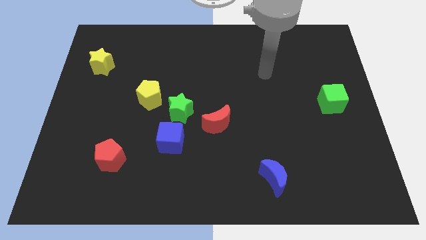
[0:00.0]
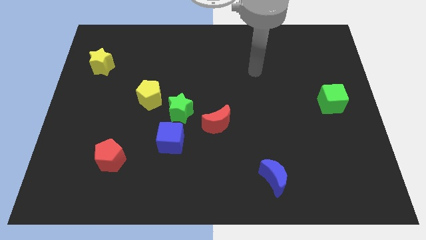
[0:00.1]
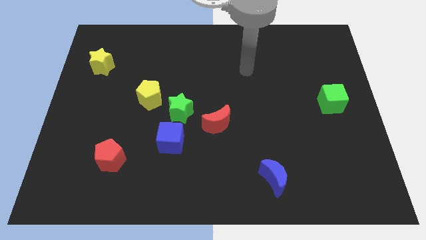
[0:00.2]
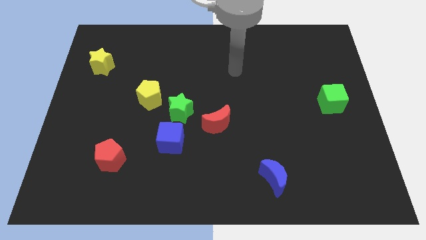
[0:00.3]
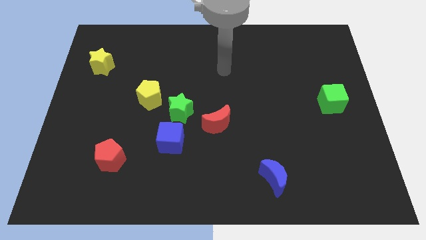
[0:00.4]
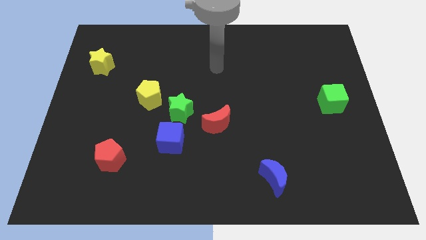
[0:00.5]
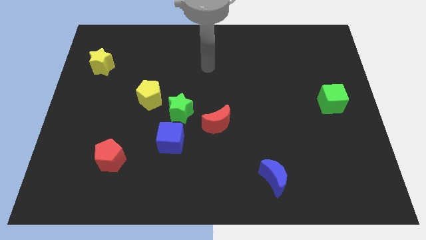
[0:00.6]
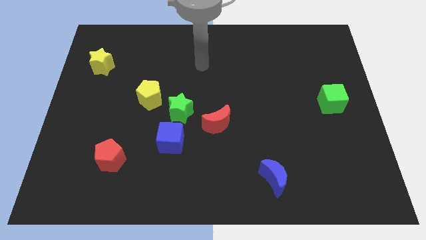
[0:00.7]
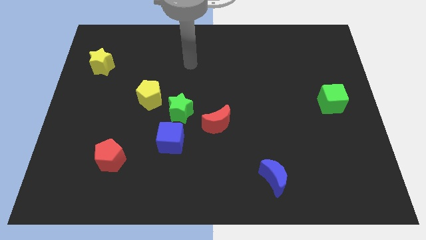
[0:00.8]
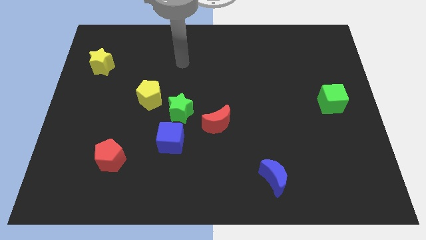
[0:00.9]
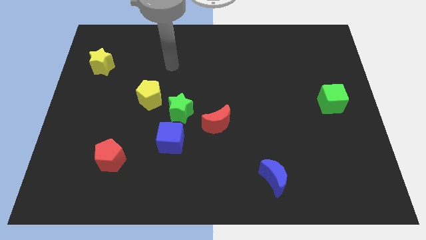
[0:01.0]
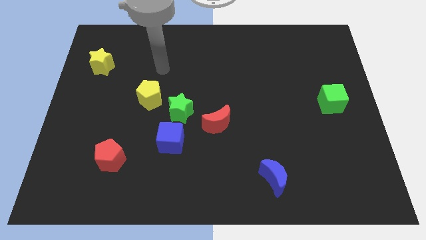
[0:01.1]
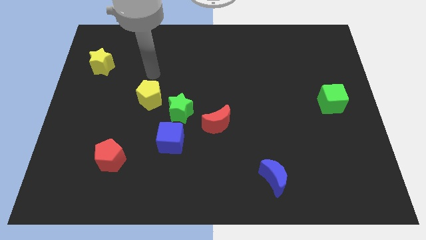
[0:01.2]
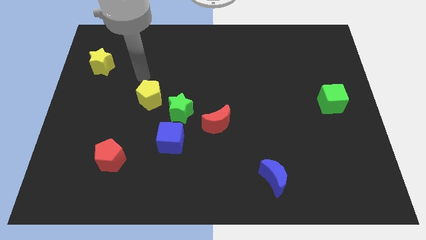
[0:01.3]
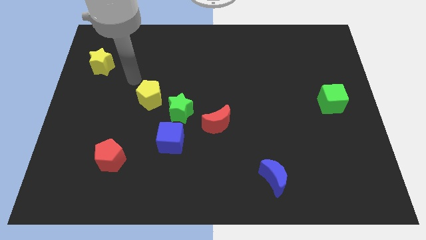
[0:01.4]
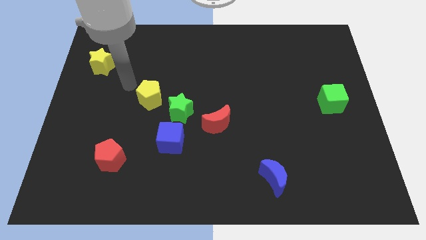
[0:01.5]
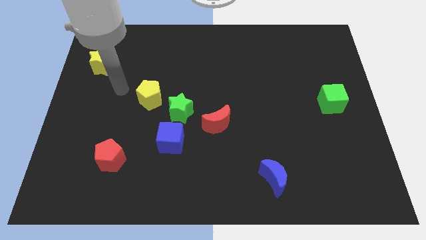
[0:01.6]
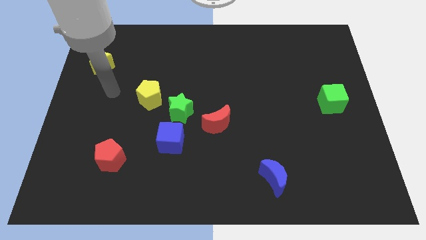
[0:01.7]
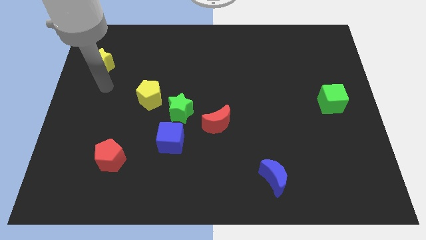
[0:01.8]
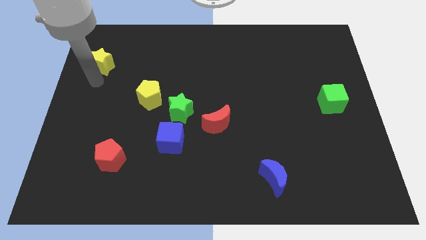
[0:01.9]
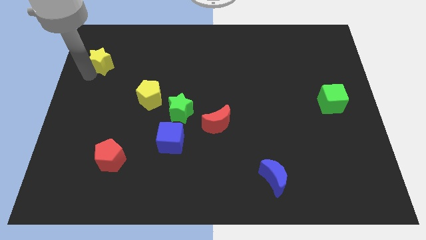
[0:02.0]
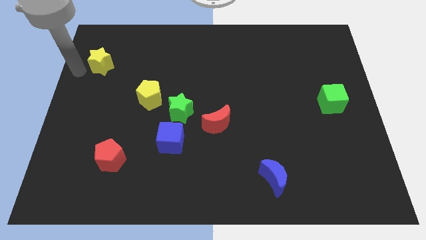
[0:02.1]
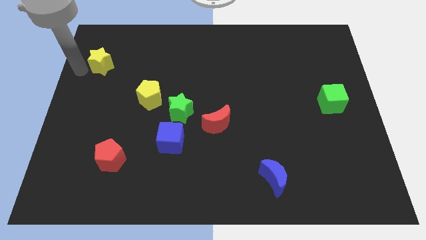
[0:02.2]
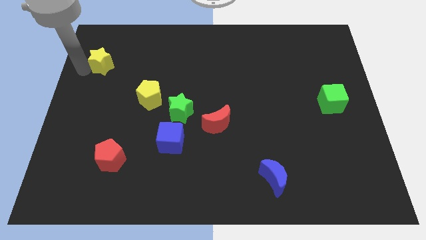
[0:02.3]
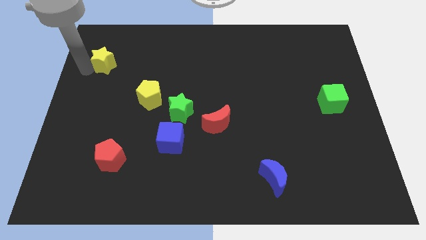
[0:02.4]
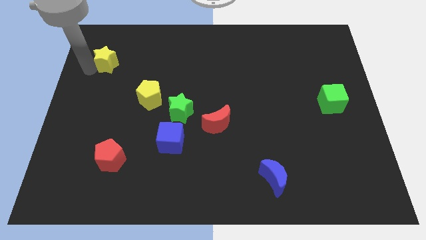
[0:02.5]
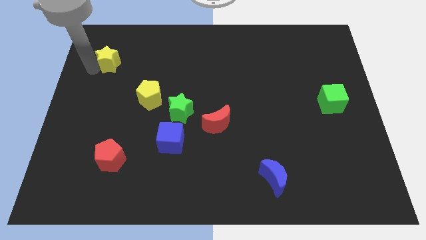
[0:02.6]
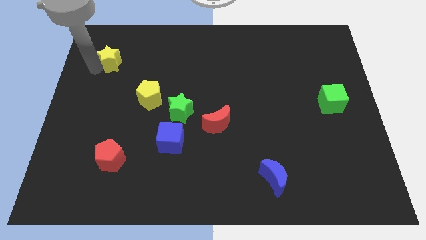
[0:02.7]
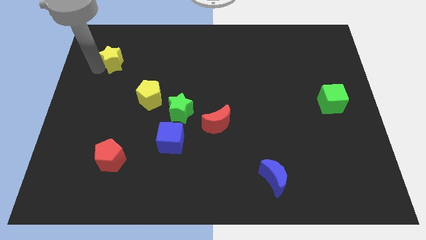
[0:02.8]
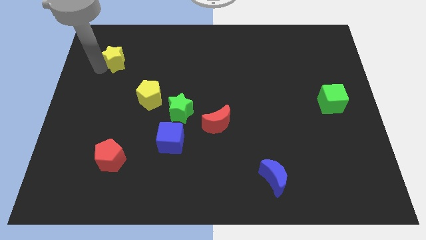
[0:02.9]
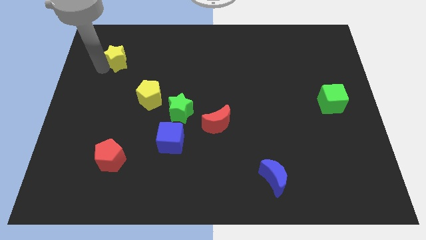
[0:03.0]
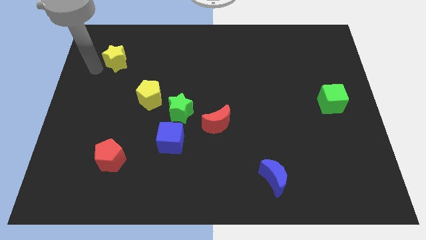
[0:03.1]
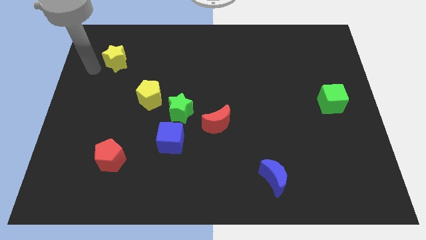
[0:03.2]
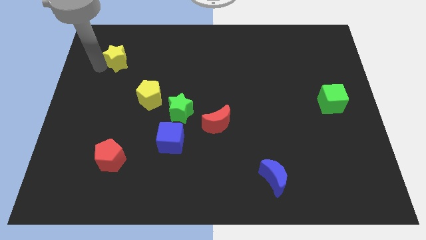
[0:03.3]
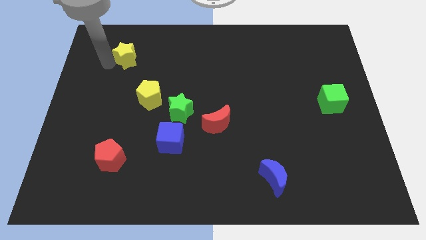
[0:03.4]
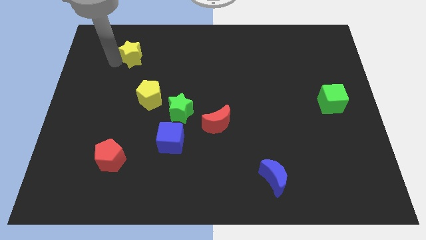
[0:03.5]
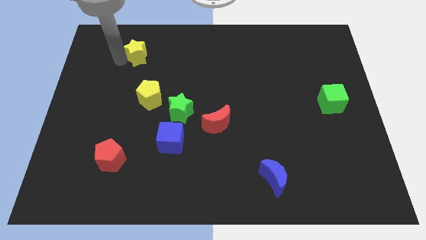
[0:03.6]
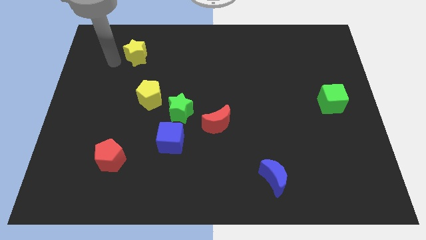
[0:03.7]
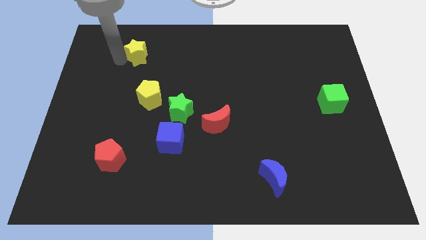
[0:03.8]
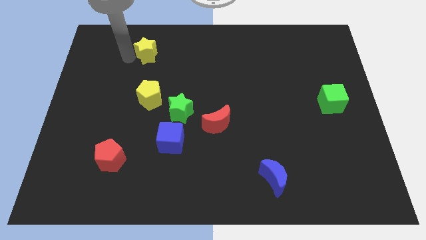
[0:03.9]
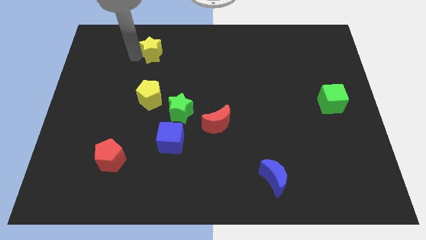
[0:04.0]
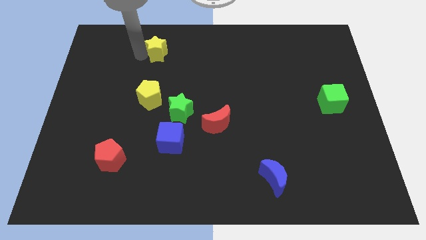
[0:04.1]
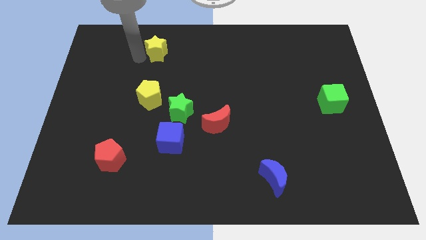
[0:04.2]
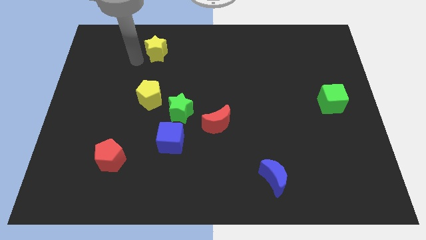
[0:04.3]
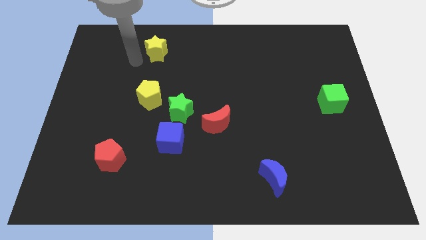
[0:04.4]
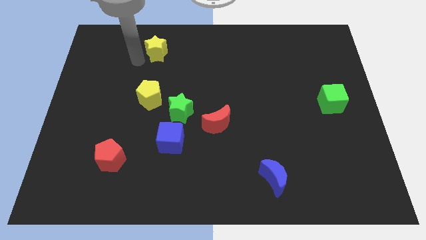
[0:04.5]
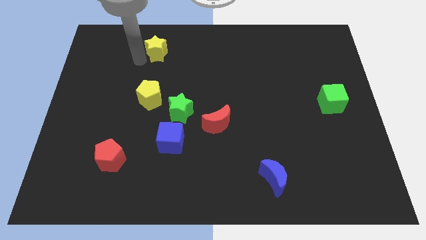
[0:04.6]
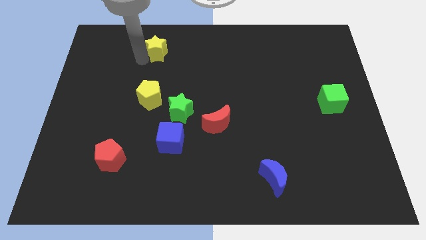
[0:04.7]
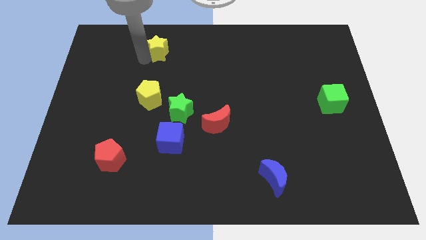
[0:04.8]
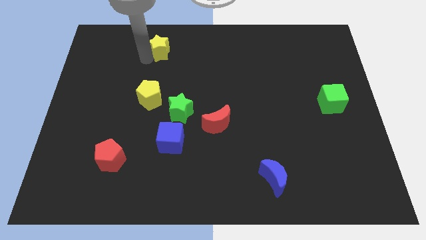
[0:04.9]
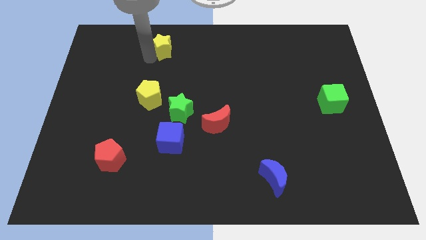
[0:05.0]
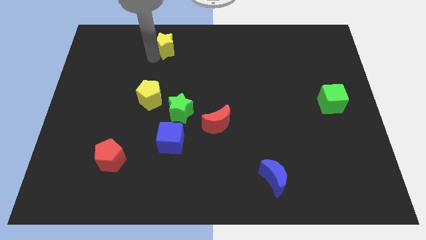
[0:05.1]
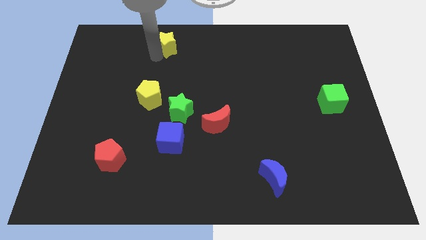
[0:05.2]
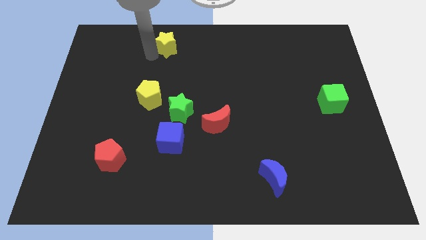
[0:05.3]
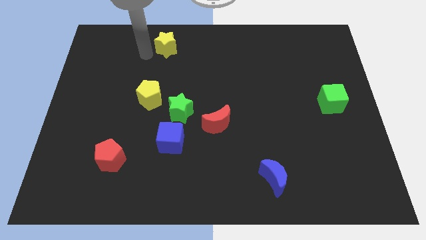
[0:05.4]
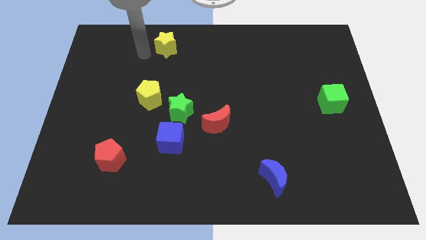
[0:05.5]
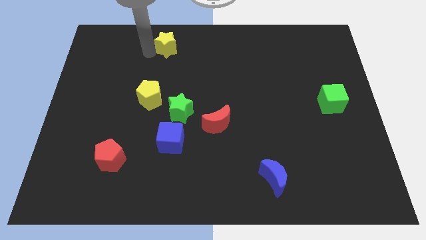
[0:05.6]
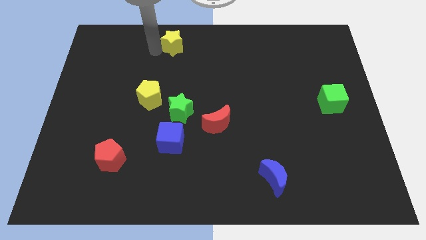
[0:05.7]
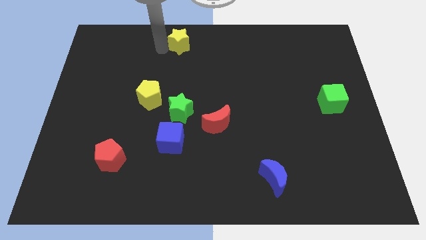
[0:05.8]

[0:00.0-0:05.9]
move the yellow star to the top side

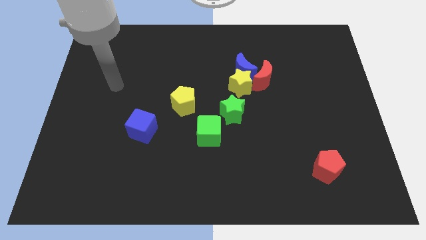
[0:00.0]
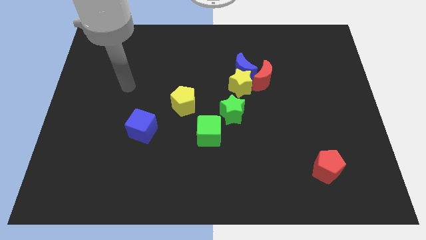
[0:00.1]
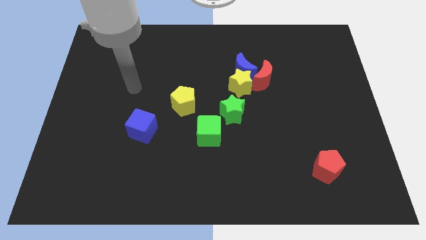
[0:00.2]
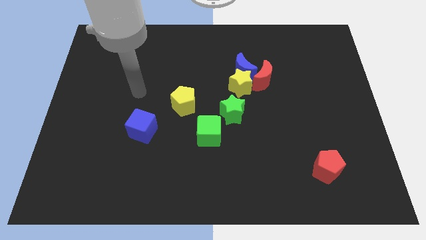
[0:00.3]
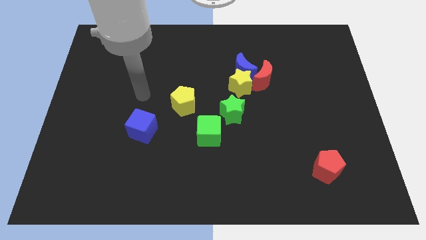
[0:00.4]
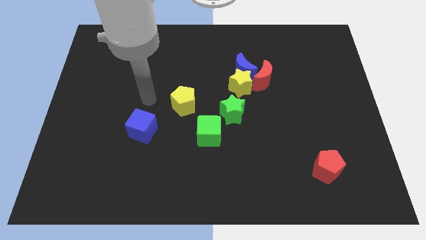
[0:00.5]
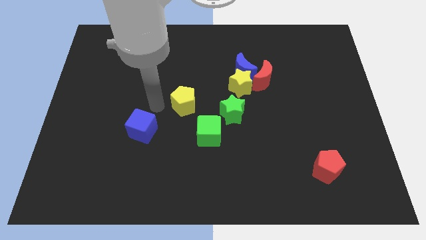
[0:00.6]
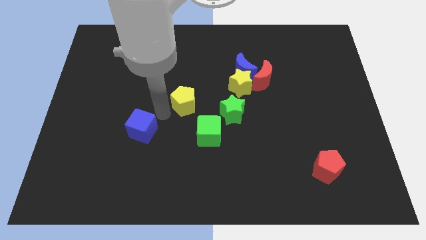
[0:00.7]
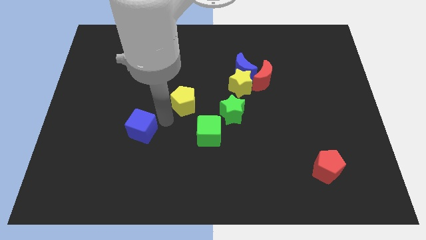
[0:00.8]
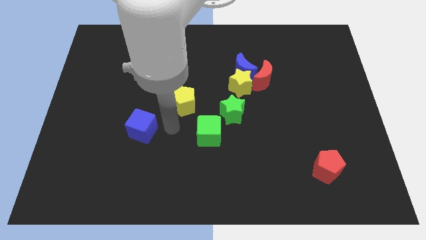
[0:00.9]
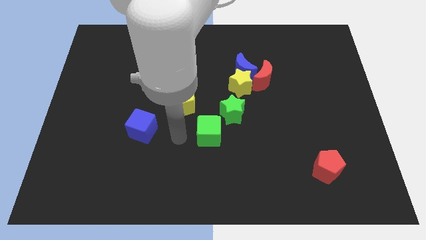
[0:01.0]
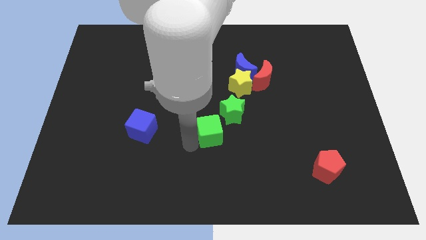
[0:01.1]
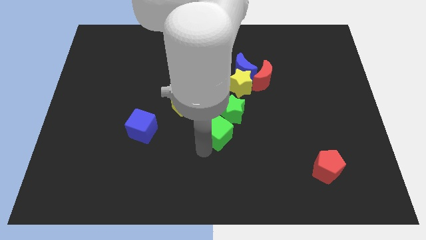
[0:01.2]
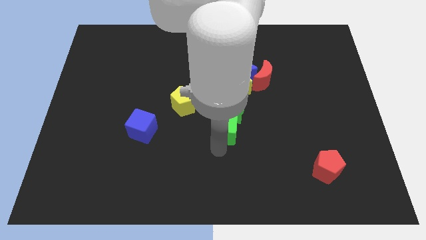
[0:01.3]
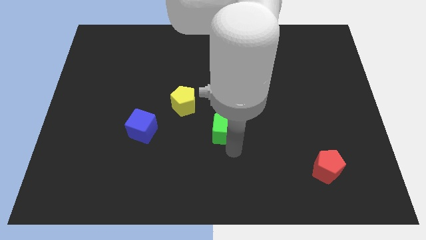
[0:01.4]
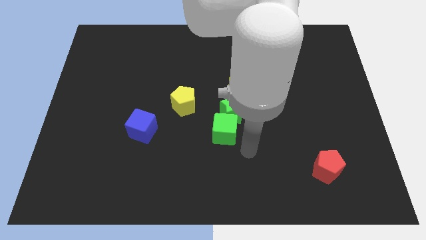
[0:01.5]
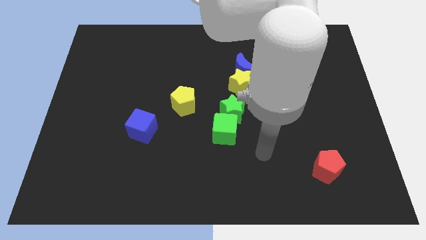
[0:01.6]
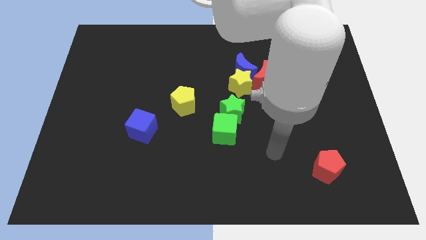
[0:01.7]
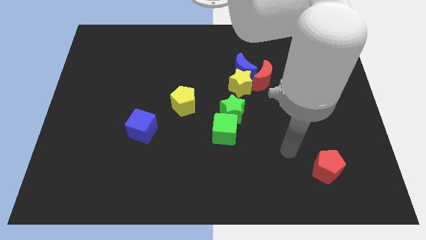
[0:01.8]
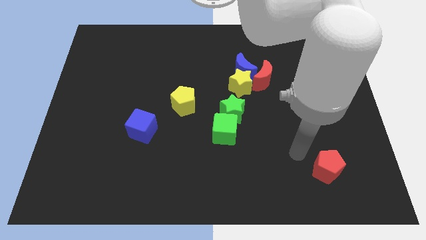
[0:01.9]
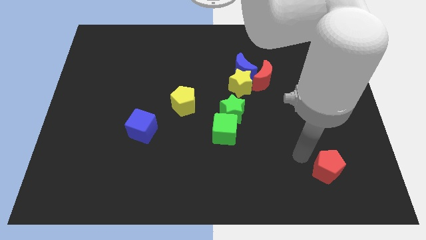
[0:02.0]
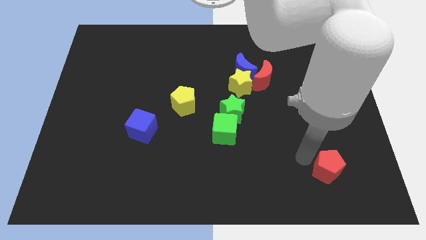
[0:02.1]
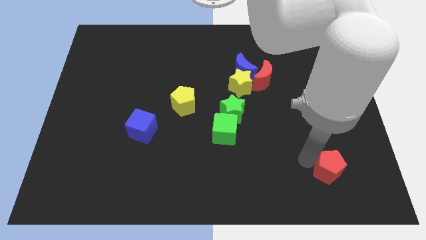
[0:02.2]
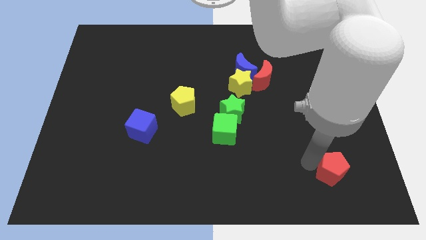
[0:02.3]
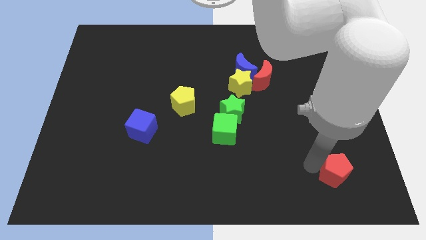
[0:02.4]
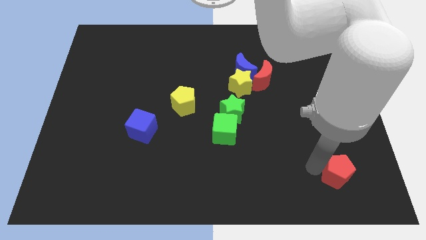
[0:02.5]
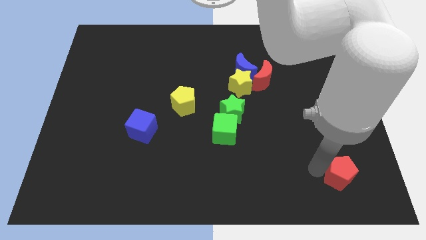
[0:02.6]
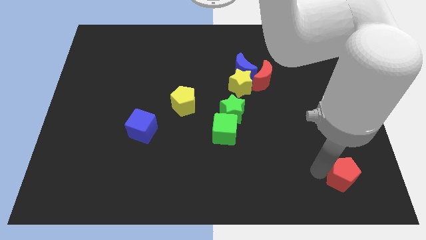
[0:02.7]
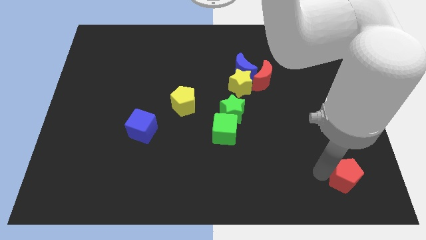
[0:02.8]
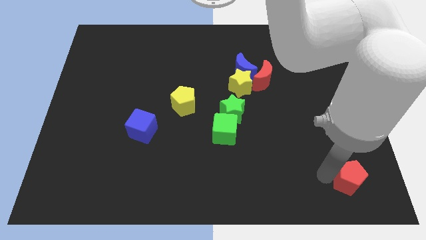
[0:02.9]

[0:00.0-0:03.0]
slide the red pentagon to the lower right corner
